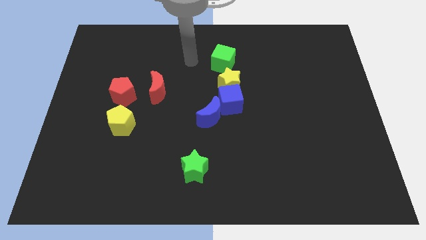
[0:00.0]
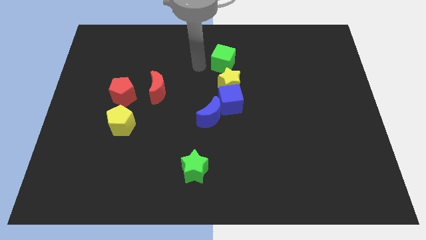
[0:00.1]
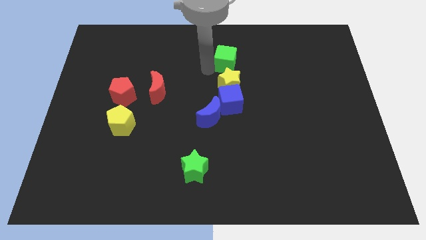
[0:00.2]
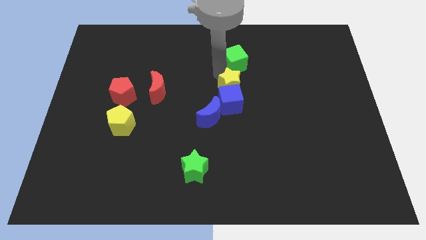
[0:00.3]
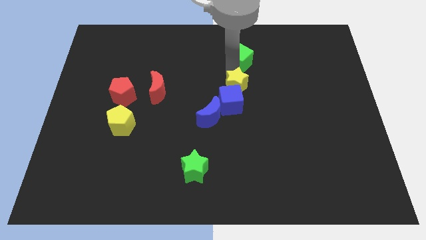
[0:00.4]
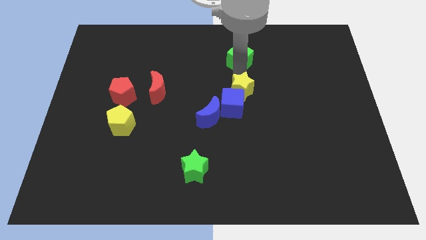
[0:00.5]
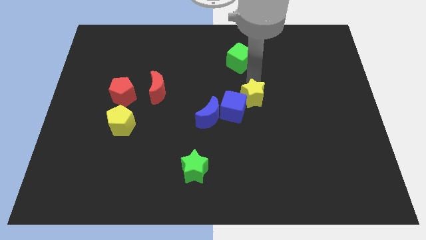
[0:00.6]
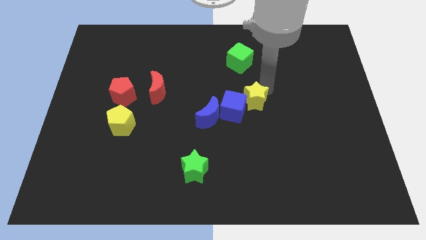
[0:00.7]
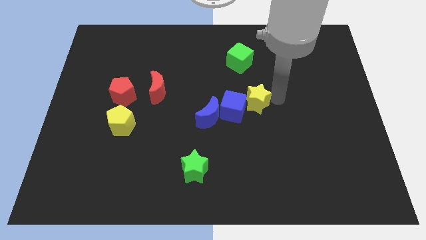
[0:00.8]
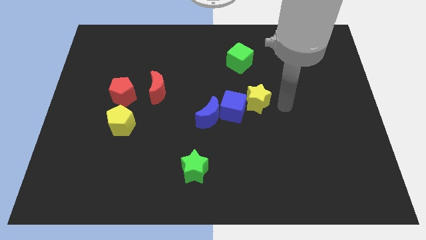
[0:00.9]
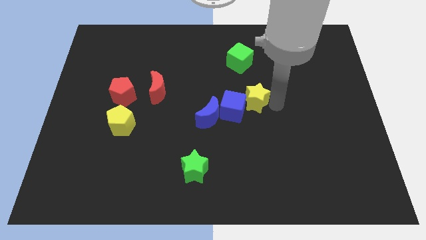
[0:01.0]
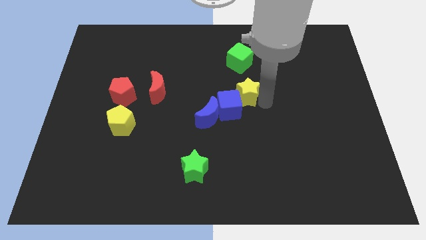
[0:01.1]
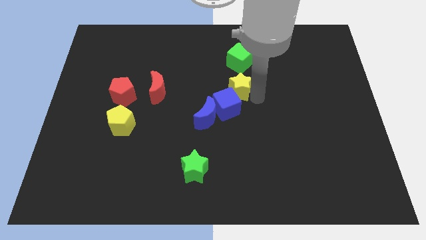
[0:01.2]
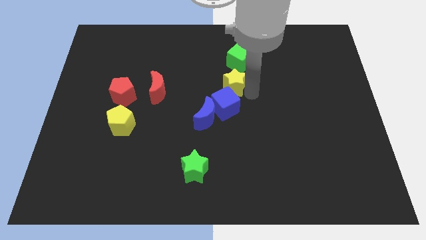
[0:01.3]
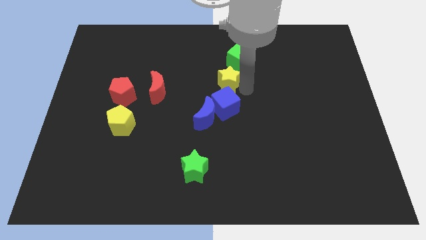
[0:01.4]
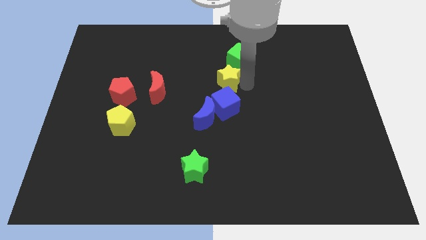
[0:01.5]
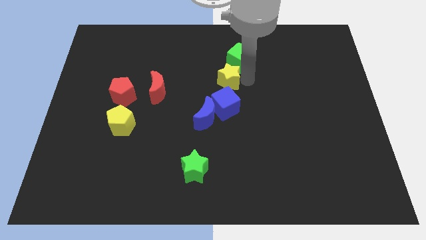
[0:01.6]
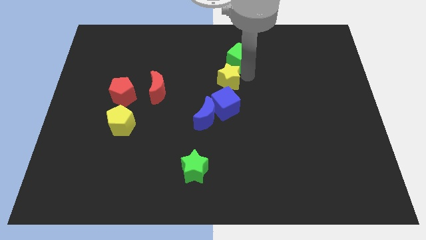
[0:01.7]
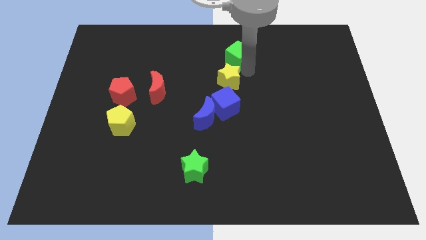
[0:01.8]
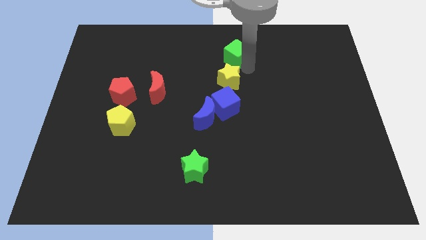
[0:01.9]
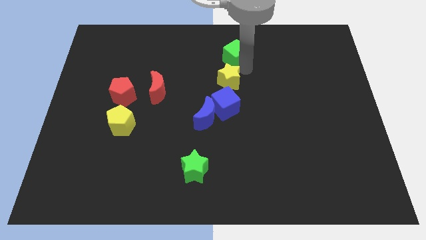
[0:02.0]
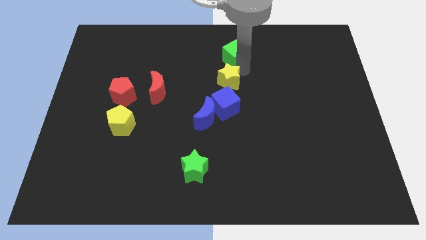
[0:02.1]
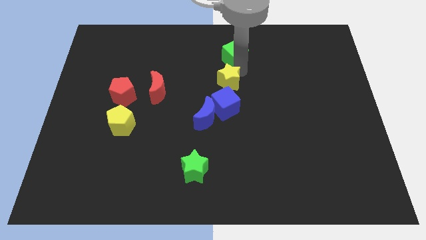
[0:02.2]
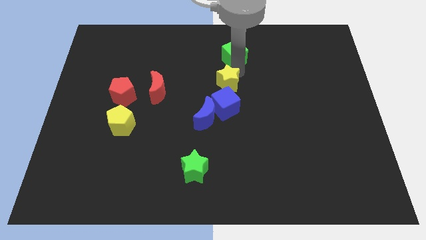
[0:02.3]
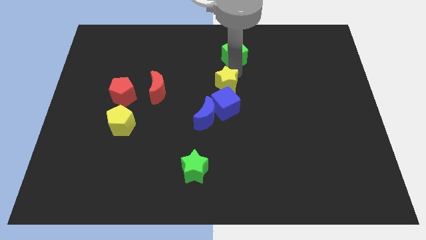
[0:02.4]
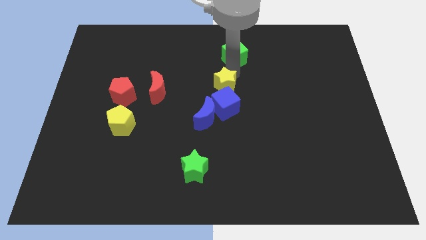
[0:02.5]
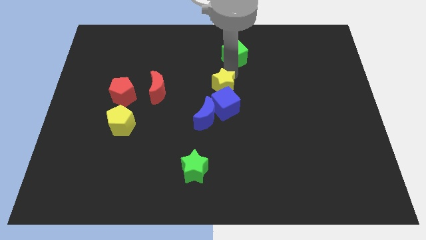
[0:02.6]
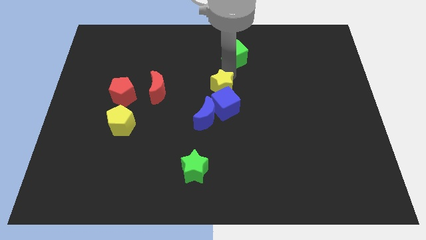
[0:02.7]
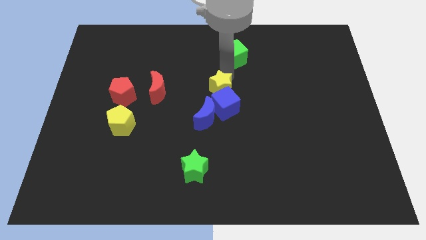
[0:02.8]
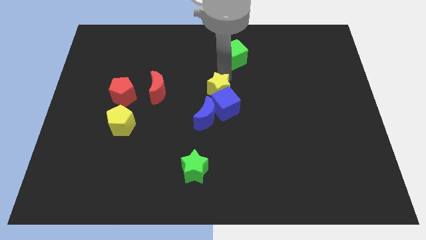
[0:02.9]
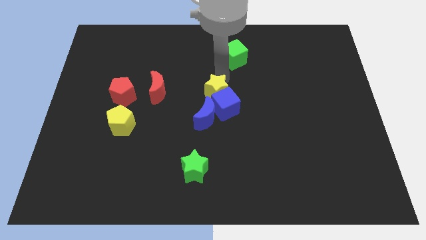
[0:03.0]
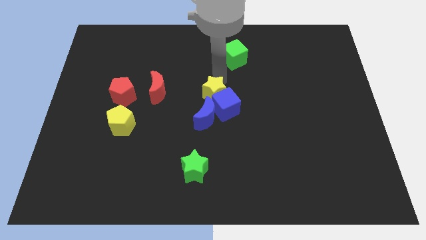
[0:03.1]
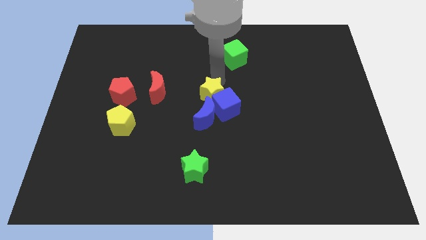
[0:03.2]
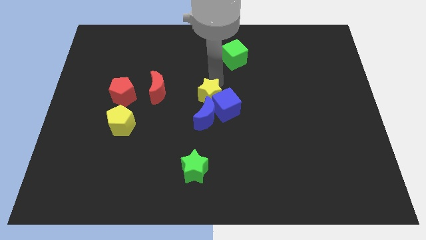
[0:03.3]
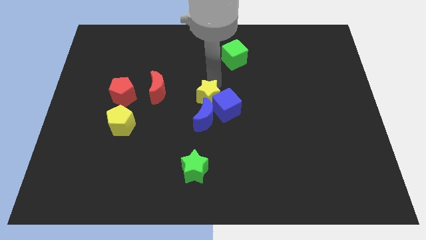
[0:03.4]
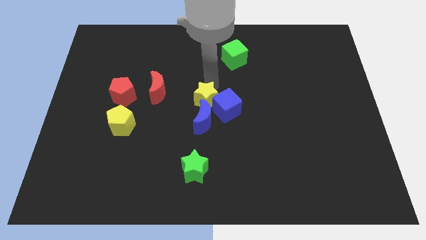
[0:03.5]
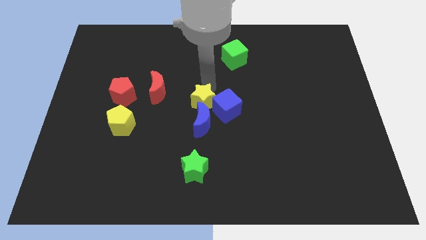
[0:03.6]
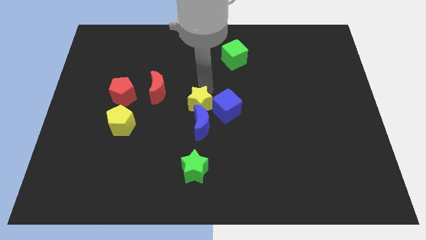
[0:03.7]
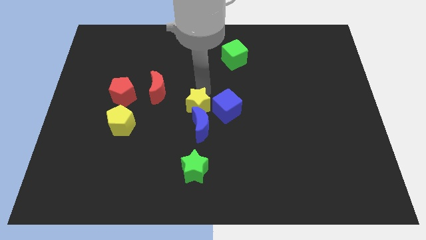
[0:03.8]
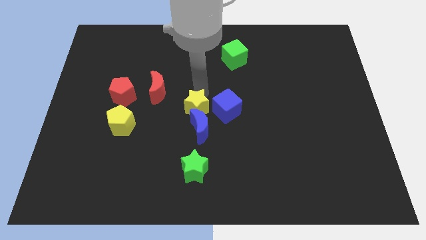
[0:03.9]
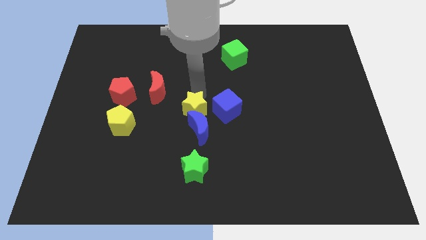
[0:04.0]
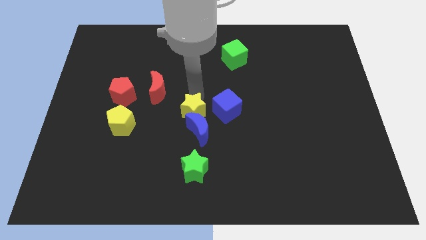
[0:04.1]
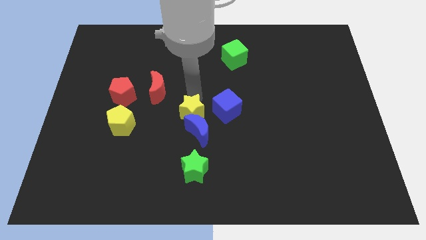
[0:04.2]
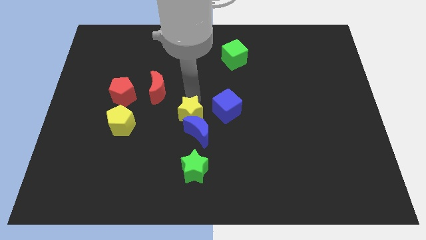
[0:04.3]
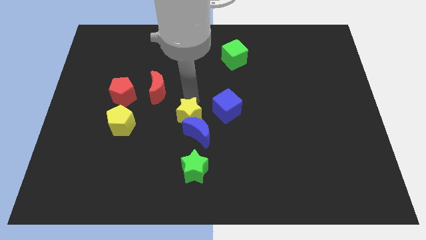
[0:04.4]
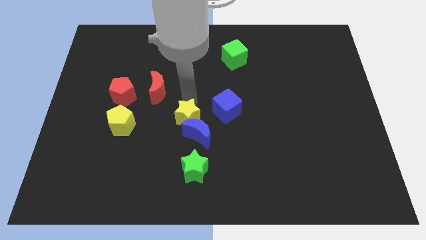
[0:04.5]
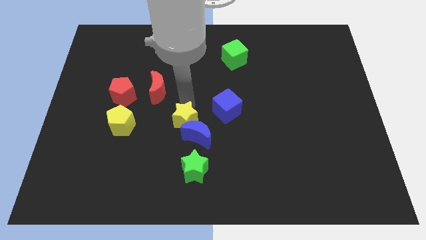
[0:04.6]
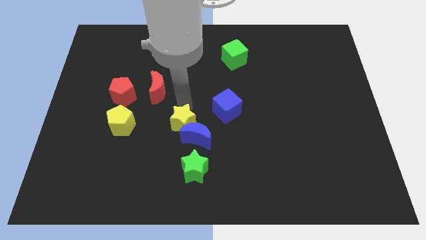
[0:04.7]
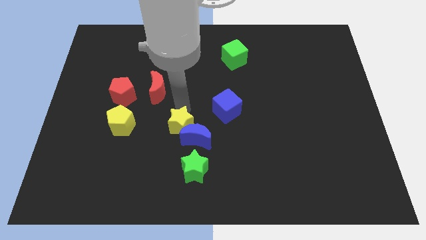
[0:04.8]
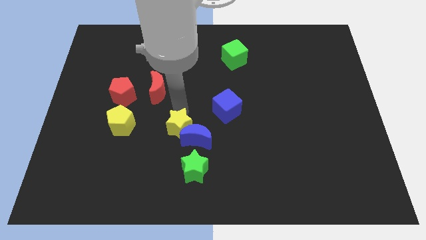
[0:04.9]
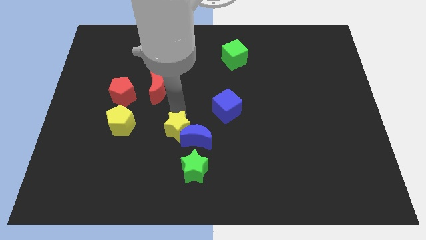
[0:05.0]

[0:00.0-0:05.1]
push the yellow star to the top left of the green star

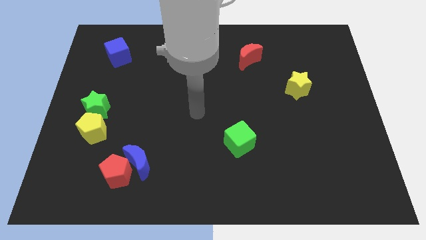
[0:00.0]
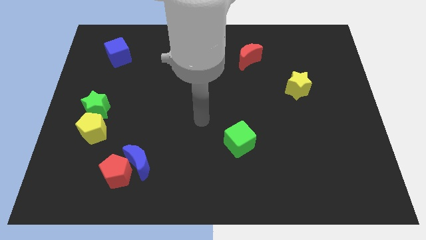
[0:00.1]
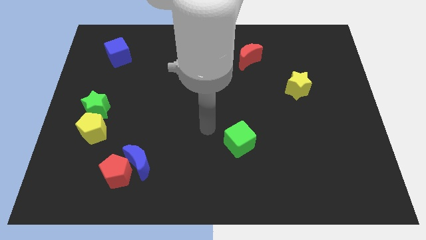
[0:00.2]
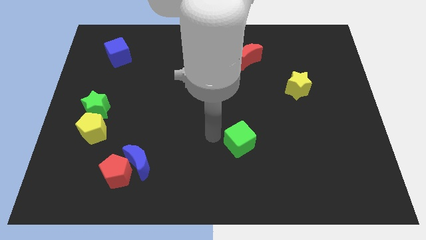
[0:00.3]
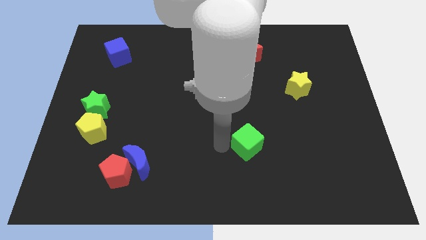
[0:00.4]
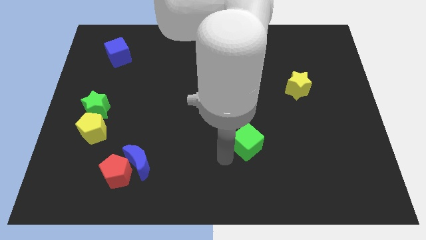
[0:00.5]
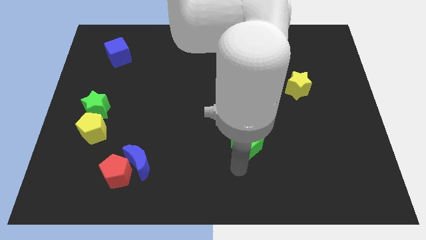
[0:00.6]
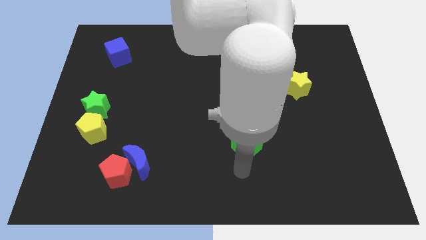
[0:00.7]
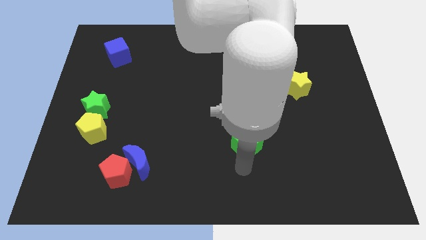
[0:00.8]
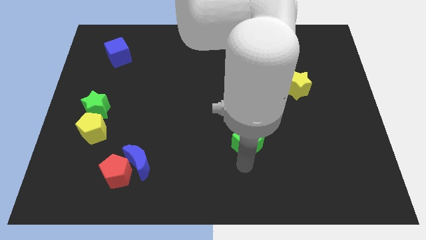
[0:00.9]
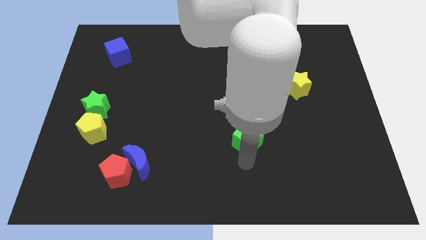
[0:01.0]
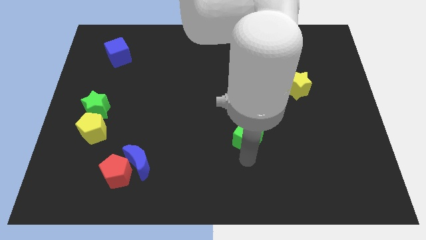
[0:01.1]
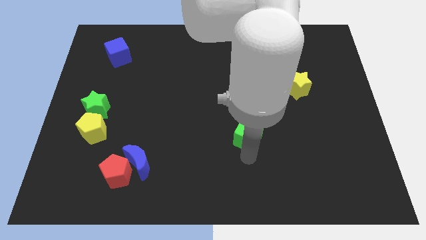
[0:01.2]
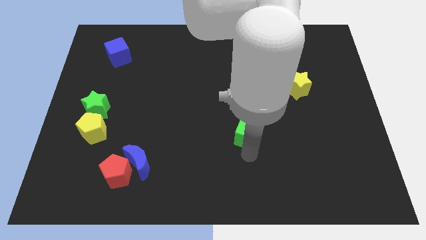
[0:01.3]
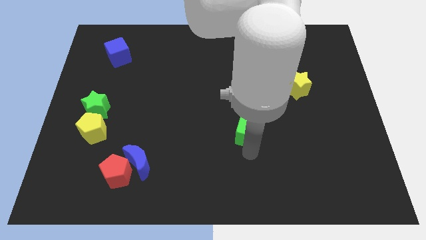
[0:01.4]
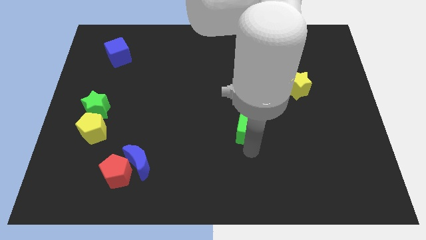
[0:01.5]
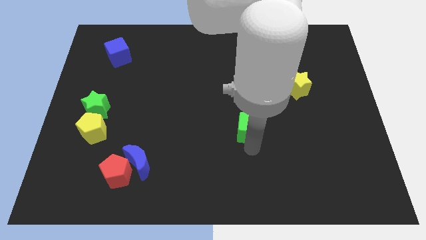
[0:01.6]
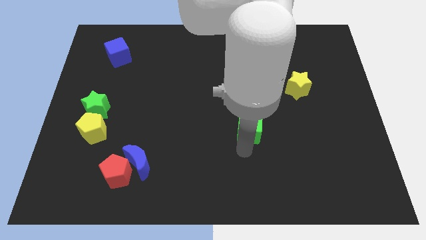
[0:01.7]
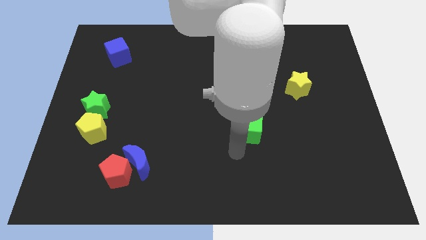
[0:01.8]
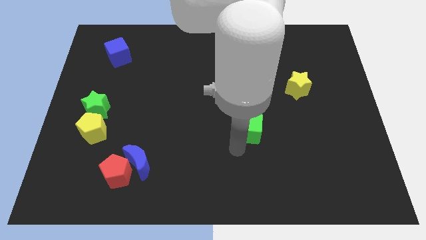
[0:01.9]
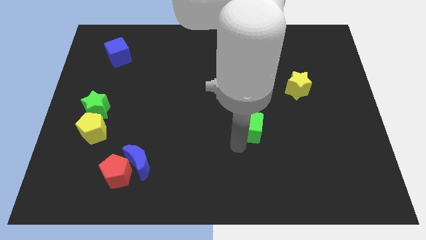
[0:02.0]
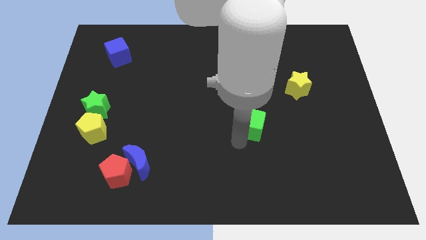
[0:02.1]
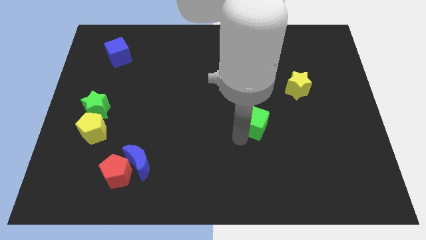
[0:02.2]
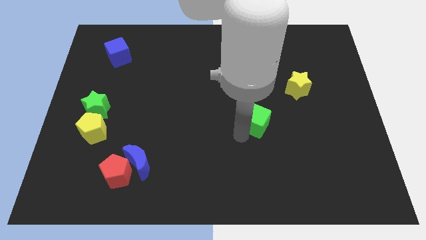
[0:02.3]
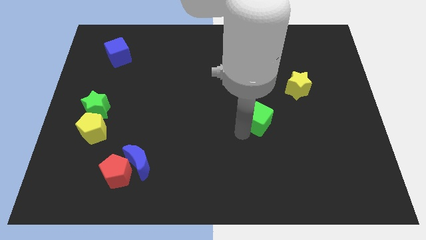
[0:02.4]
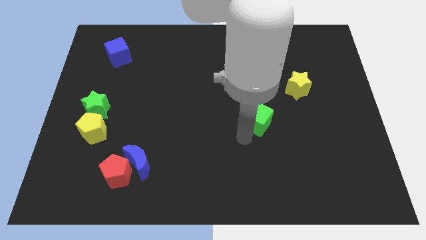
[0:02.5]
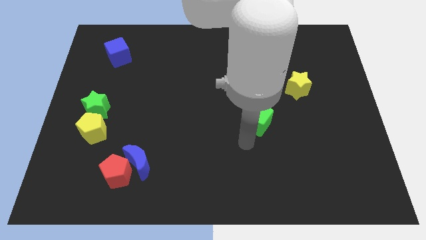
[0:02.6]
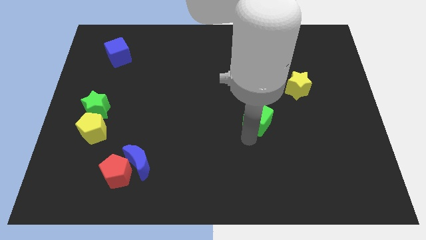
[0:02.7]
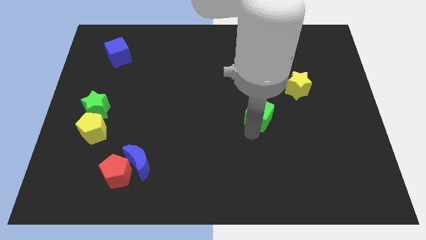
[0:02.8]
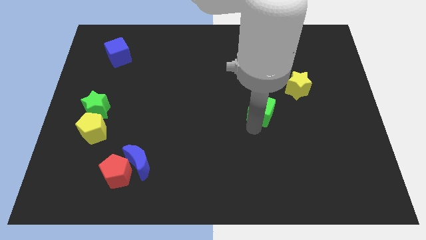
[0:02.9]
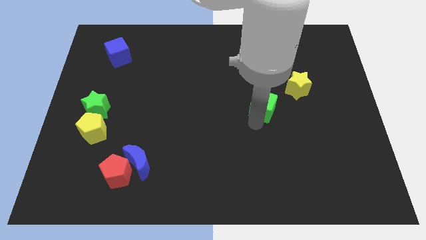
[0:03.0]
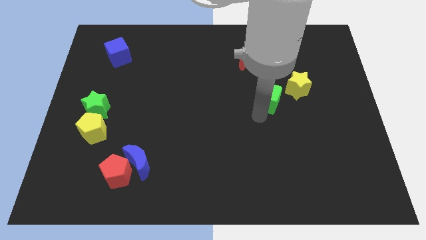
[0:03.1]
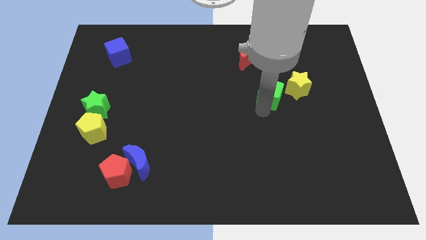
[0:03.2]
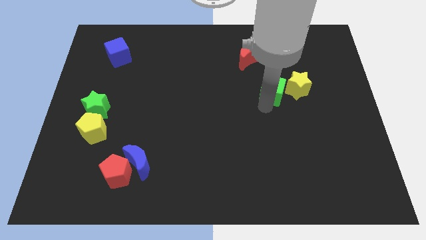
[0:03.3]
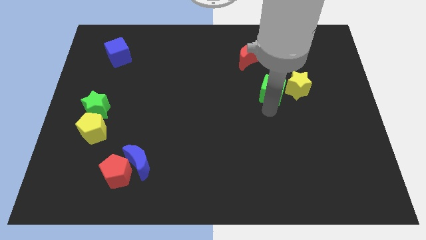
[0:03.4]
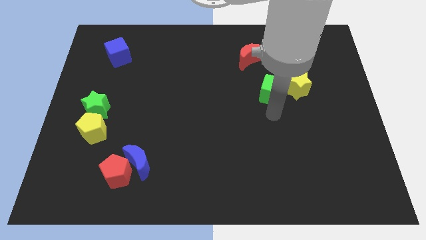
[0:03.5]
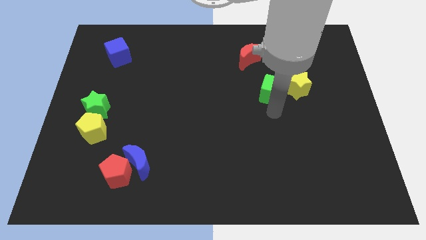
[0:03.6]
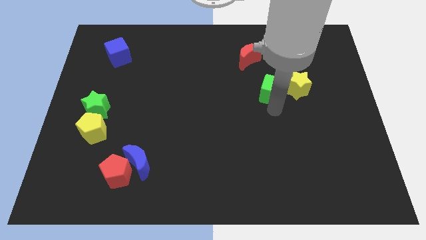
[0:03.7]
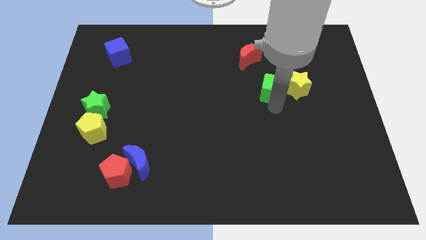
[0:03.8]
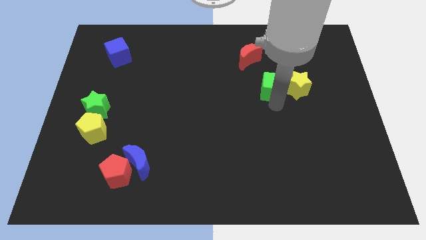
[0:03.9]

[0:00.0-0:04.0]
put the green cube to the bottom right of the red moon
